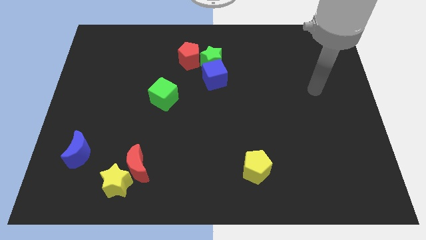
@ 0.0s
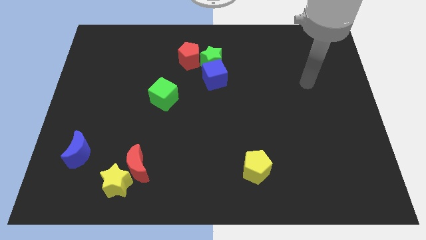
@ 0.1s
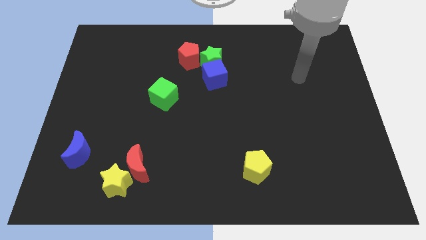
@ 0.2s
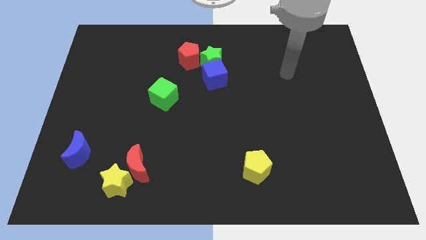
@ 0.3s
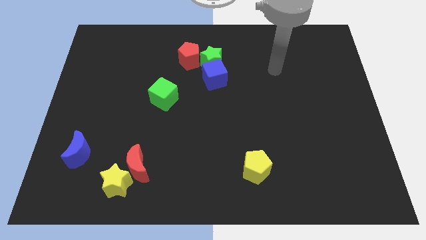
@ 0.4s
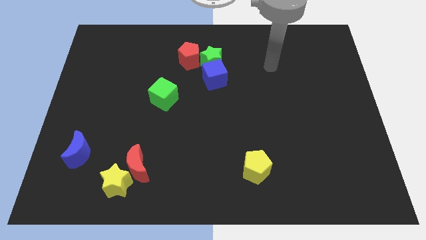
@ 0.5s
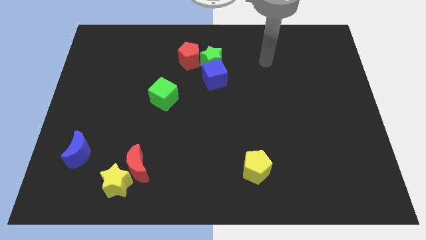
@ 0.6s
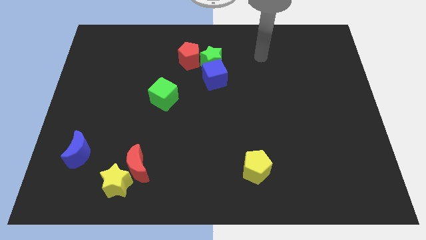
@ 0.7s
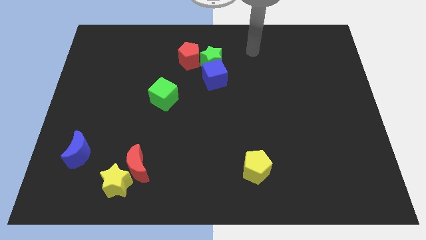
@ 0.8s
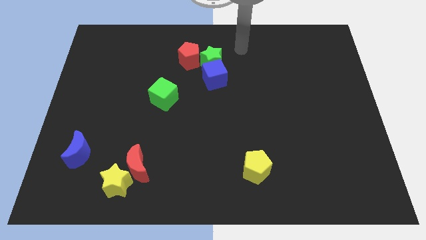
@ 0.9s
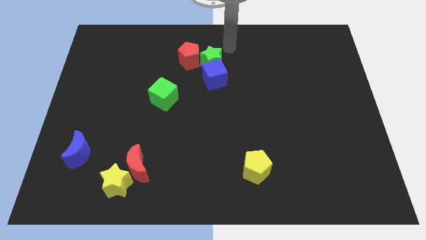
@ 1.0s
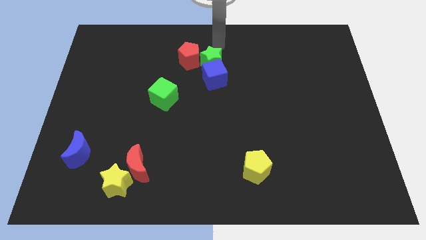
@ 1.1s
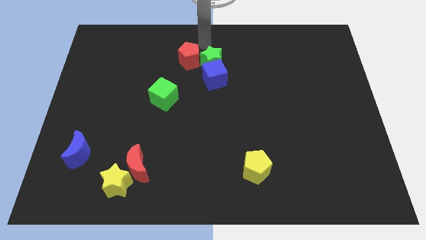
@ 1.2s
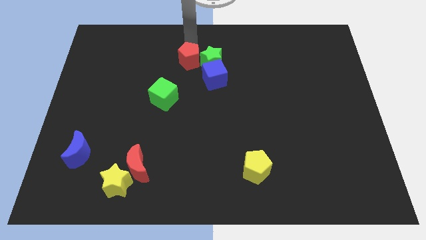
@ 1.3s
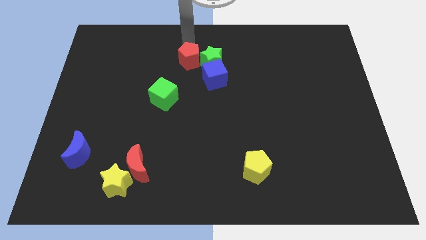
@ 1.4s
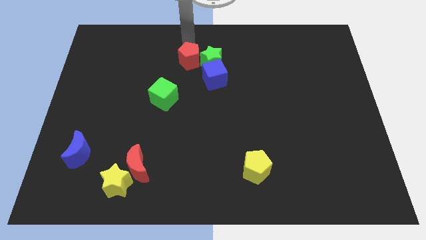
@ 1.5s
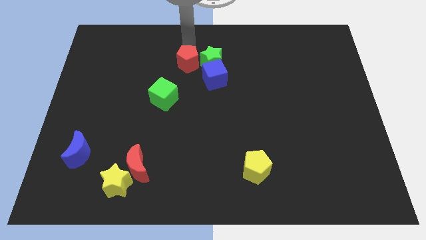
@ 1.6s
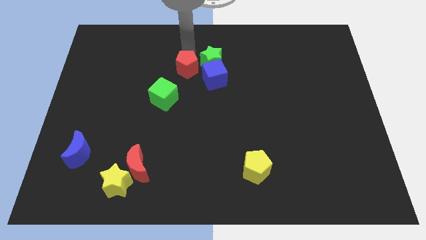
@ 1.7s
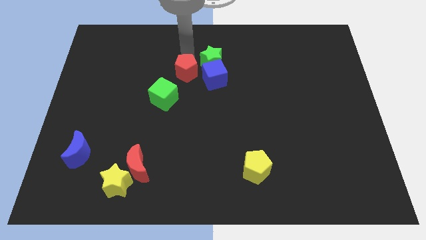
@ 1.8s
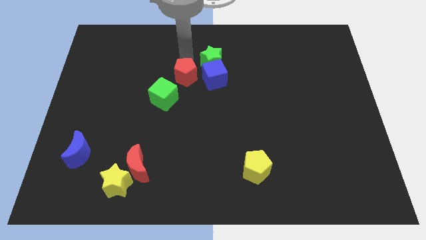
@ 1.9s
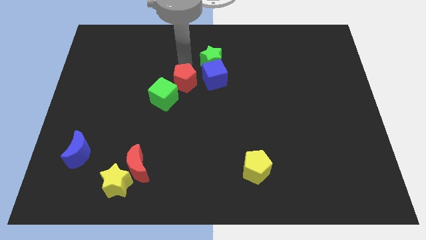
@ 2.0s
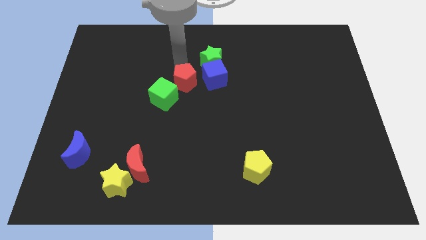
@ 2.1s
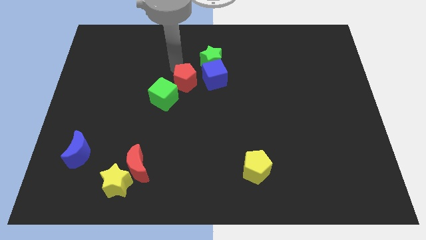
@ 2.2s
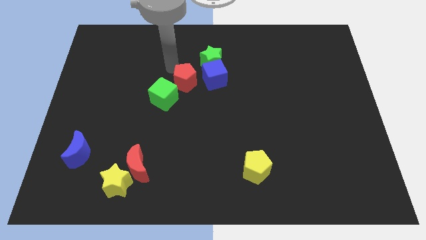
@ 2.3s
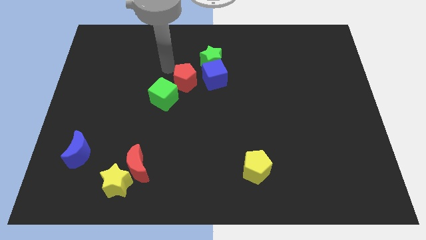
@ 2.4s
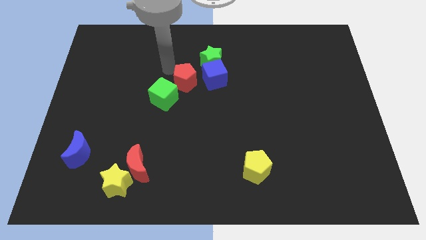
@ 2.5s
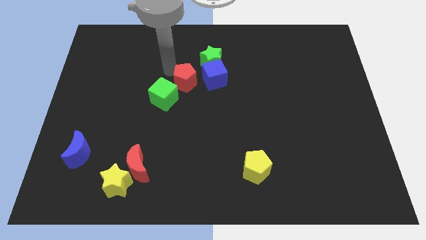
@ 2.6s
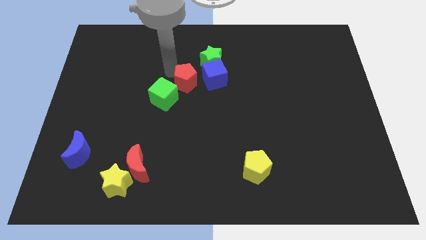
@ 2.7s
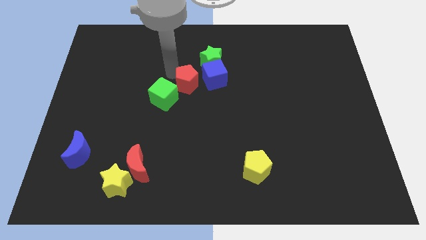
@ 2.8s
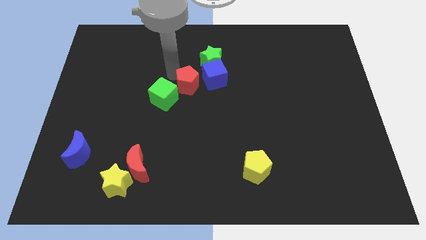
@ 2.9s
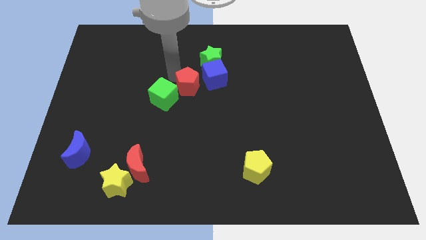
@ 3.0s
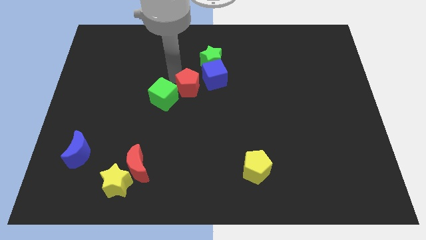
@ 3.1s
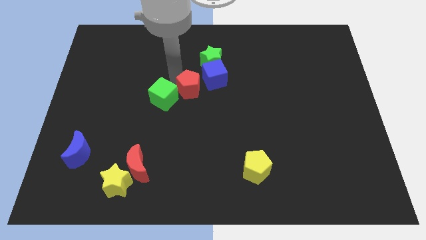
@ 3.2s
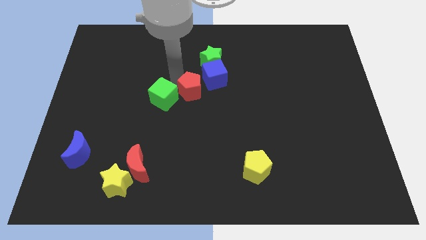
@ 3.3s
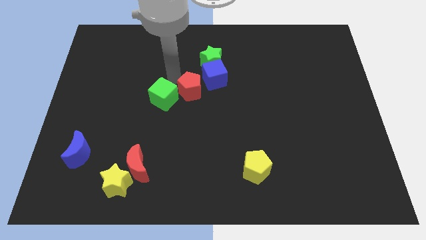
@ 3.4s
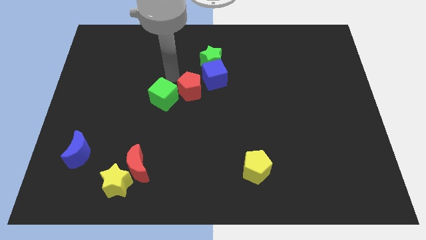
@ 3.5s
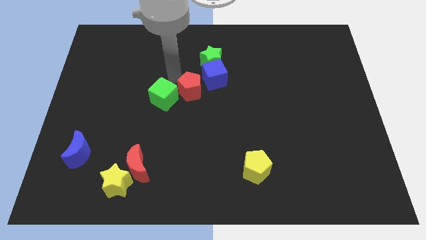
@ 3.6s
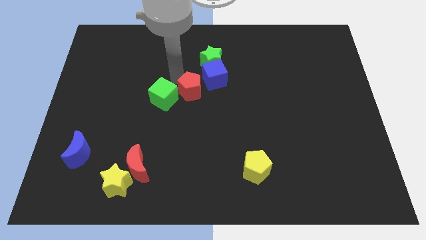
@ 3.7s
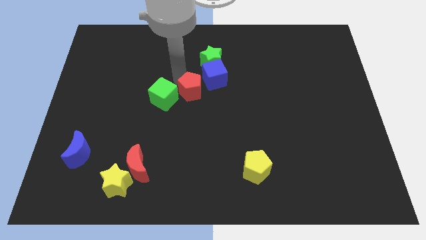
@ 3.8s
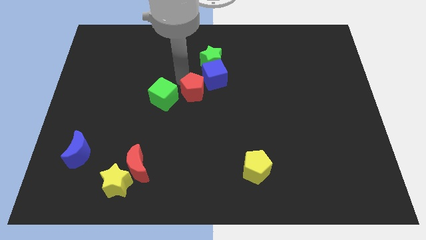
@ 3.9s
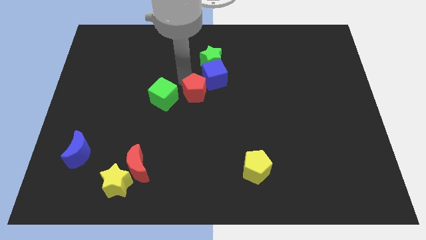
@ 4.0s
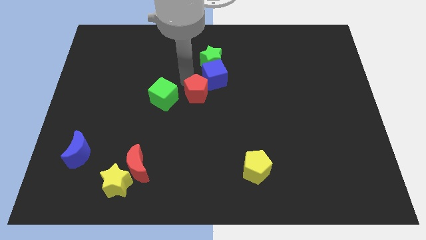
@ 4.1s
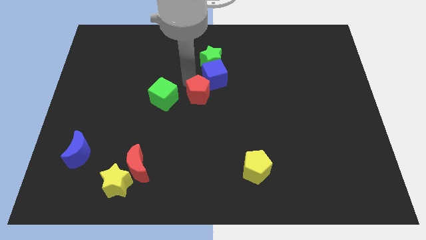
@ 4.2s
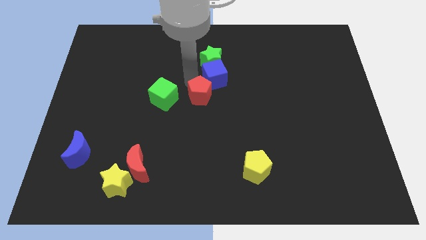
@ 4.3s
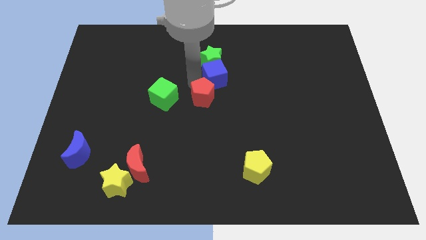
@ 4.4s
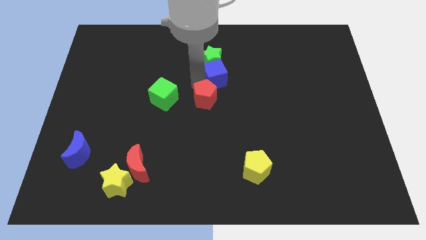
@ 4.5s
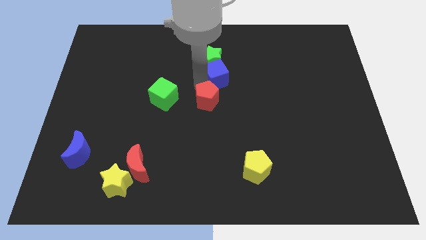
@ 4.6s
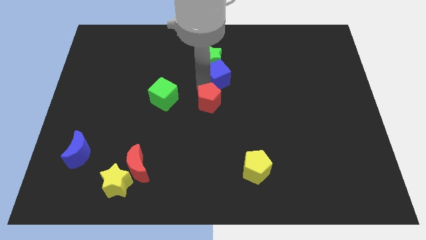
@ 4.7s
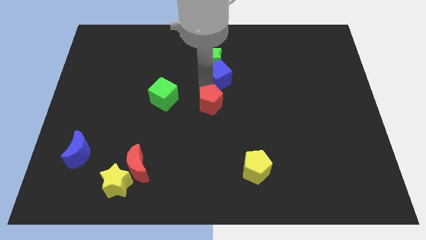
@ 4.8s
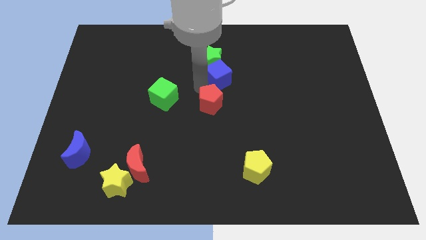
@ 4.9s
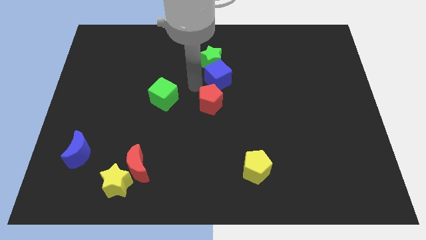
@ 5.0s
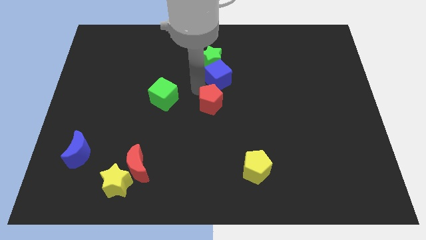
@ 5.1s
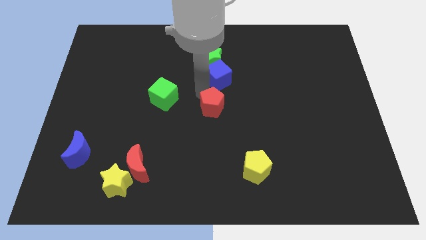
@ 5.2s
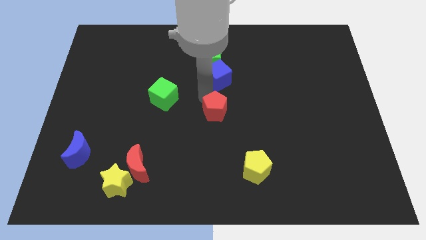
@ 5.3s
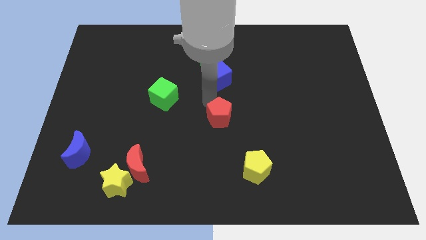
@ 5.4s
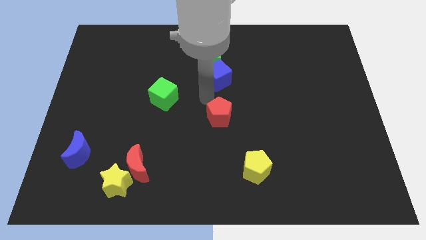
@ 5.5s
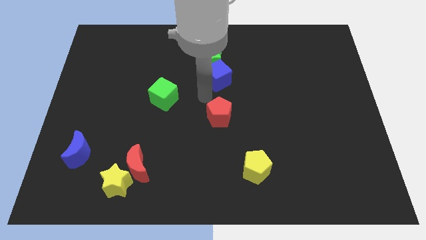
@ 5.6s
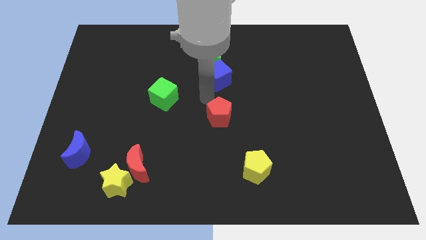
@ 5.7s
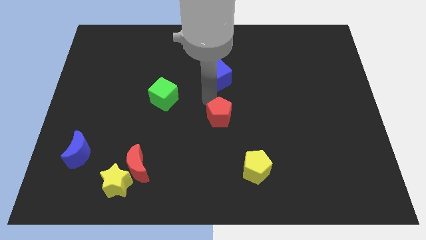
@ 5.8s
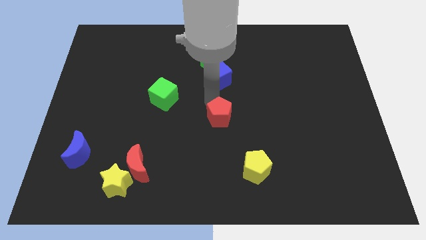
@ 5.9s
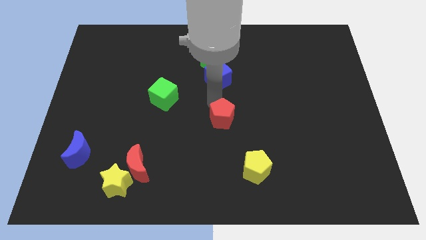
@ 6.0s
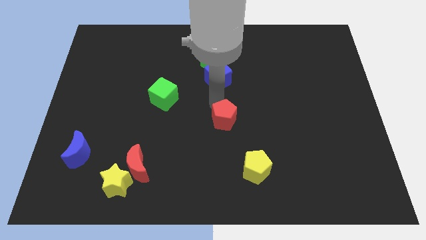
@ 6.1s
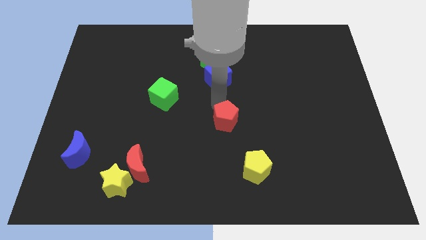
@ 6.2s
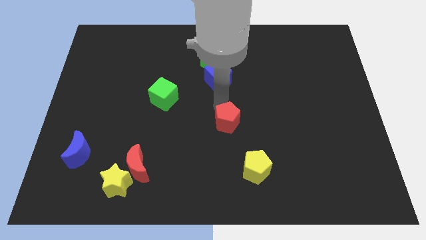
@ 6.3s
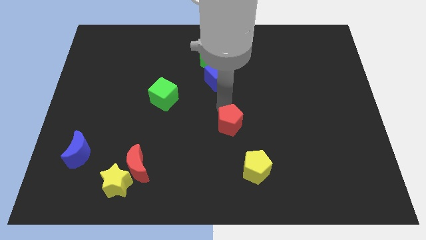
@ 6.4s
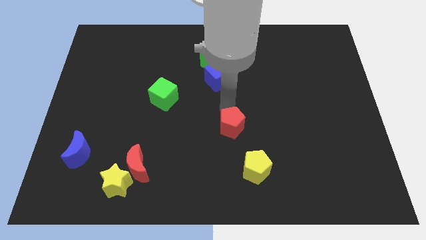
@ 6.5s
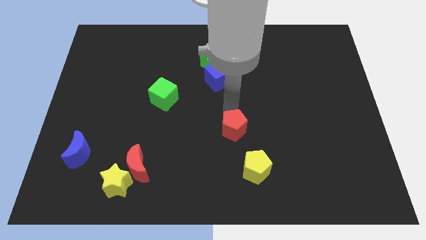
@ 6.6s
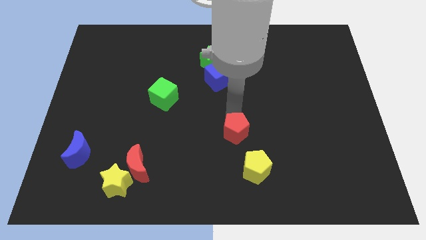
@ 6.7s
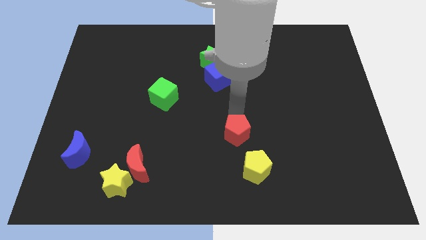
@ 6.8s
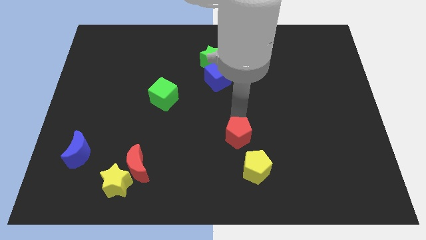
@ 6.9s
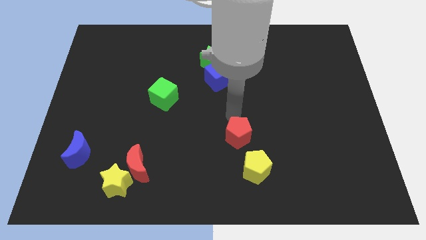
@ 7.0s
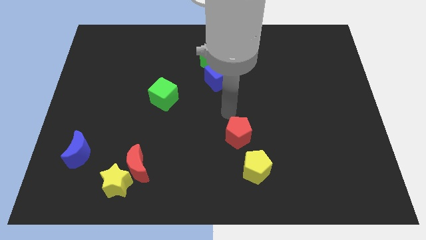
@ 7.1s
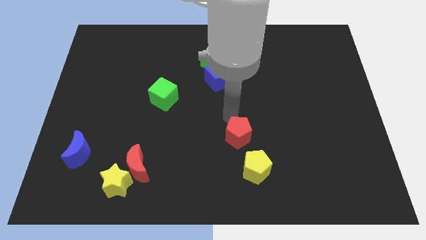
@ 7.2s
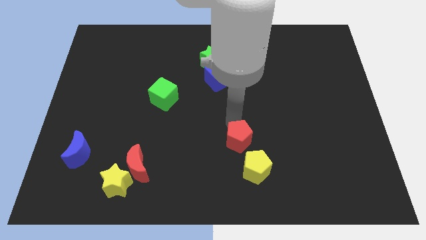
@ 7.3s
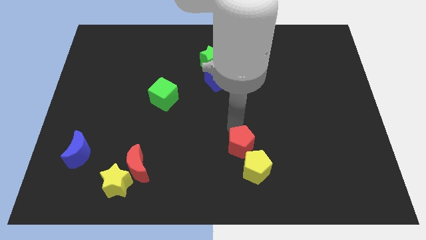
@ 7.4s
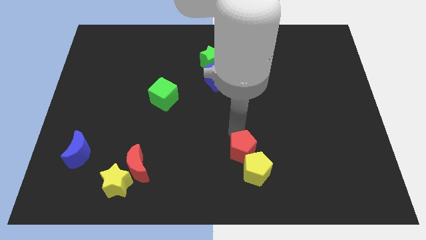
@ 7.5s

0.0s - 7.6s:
push the red pentagon towards the yellow pentagon

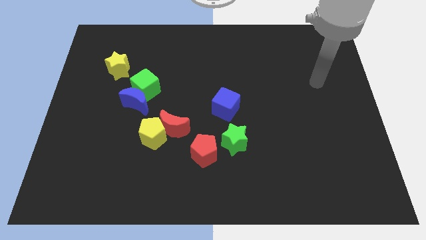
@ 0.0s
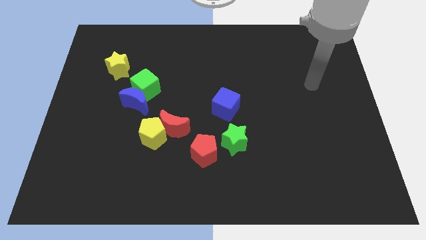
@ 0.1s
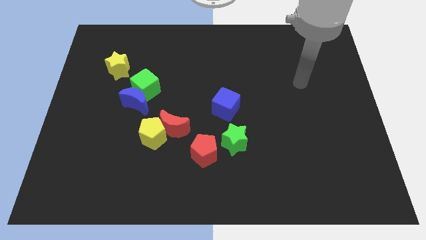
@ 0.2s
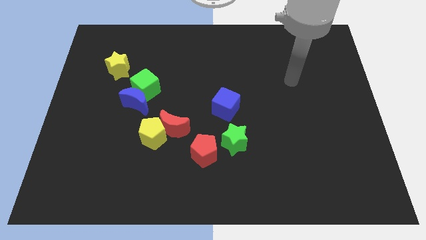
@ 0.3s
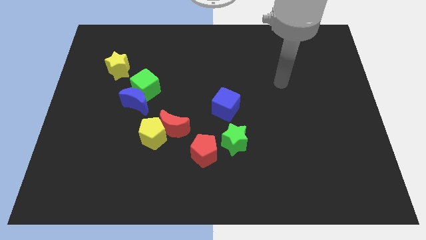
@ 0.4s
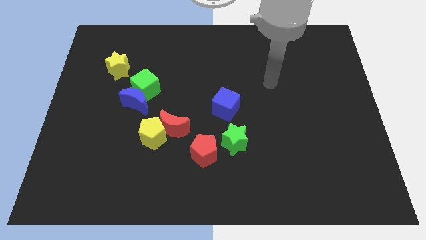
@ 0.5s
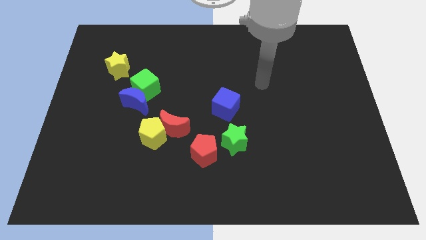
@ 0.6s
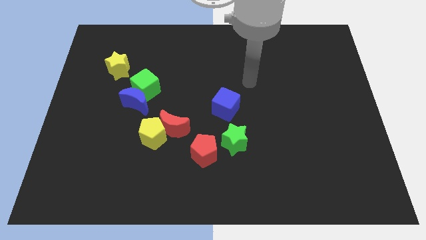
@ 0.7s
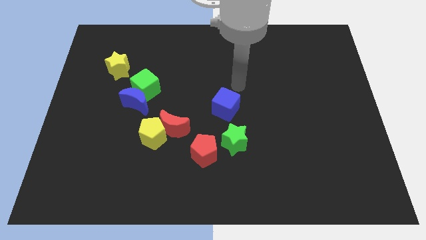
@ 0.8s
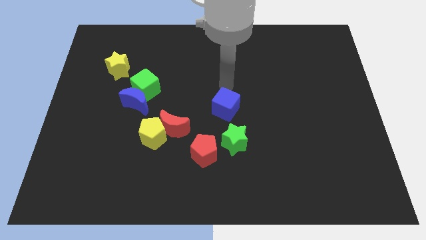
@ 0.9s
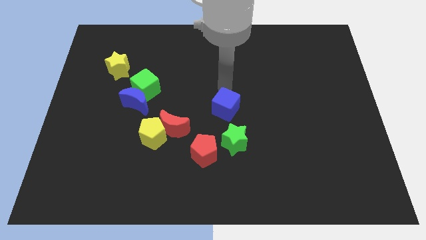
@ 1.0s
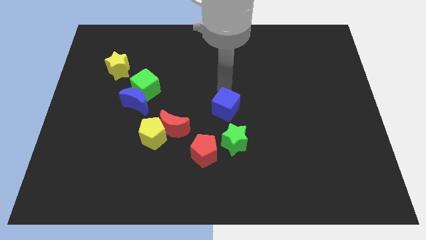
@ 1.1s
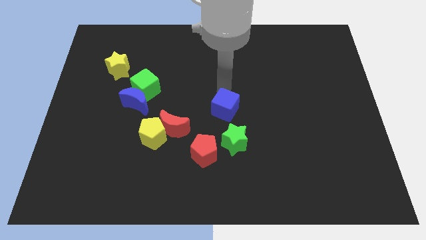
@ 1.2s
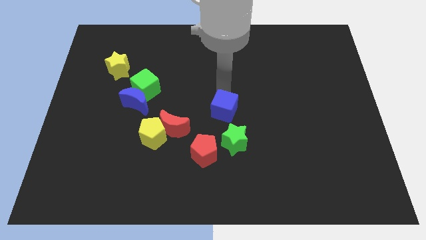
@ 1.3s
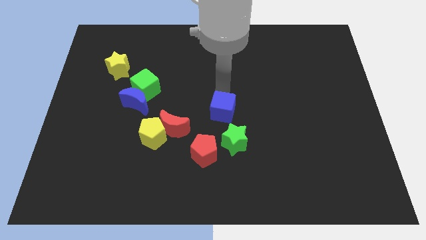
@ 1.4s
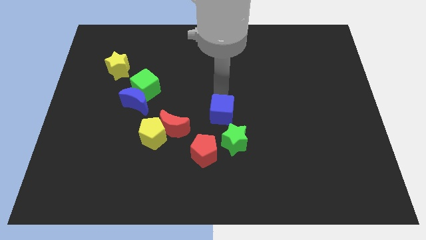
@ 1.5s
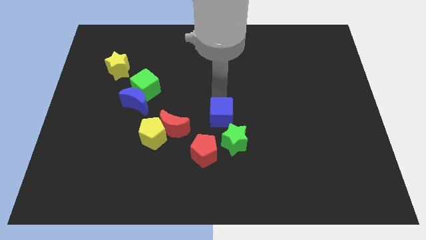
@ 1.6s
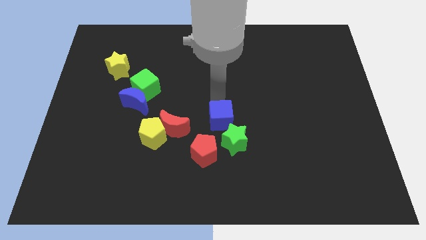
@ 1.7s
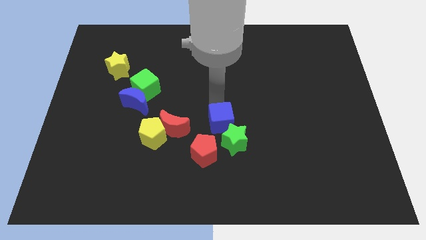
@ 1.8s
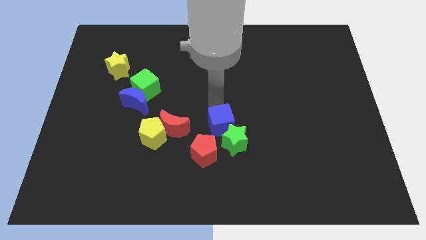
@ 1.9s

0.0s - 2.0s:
slide the blue cube towards the green star
